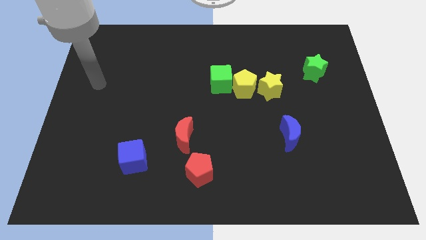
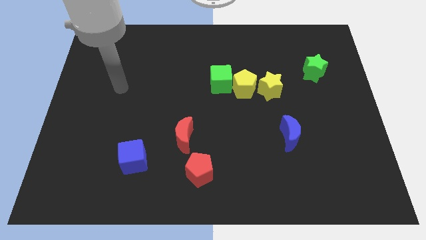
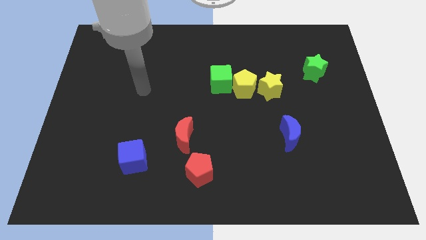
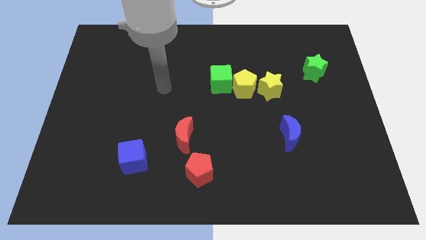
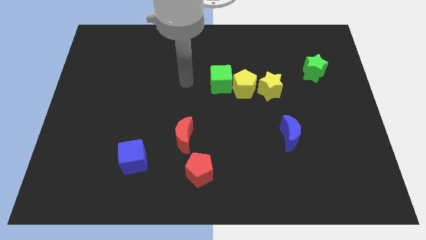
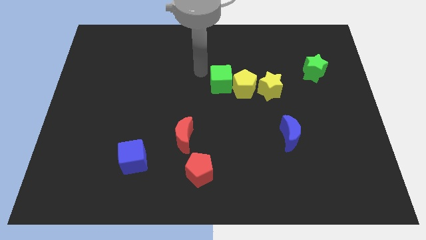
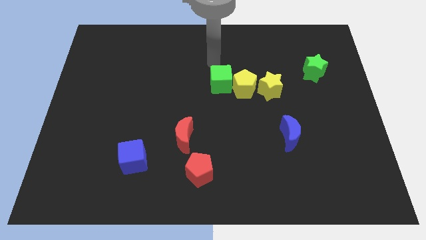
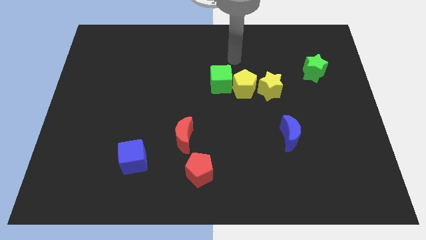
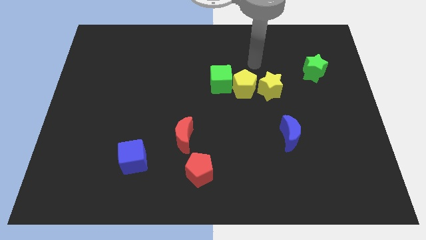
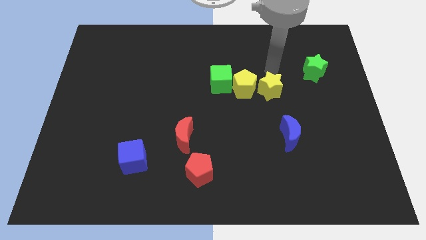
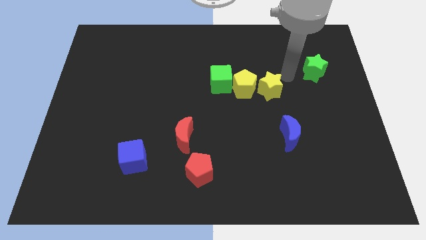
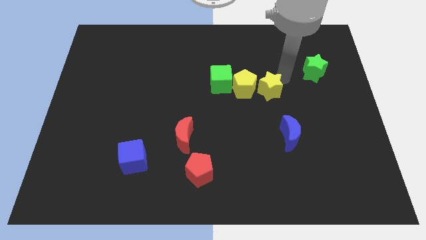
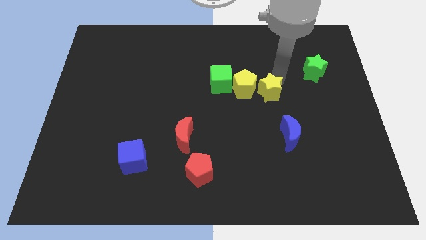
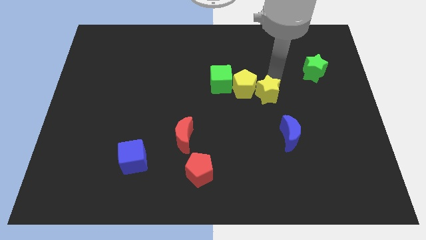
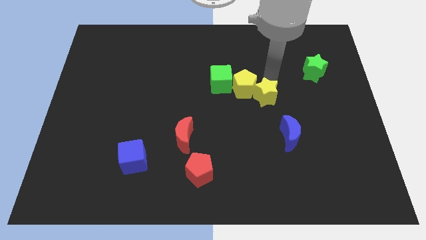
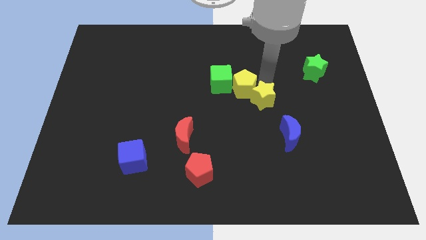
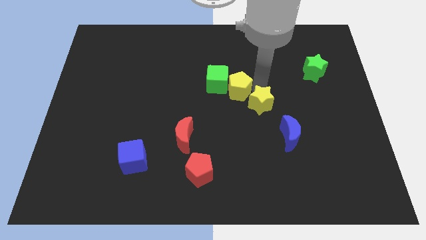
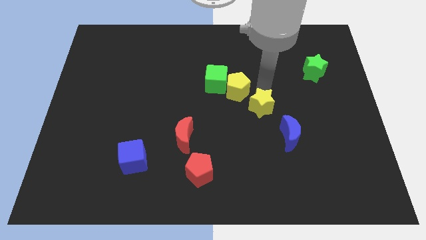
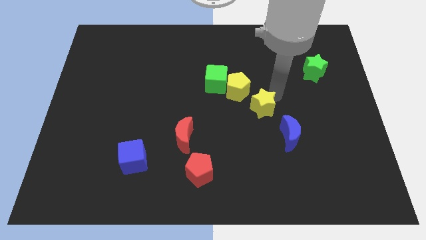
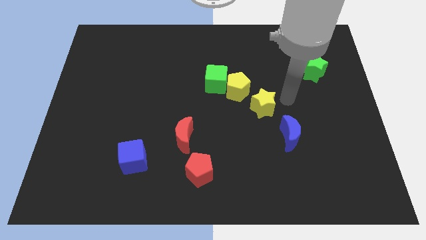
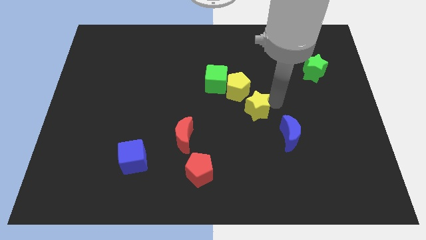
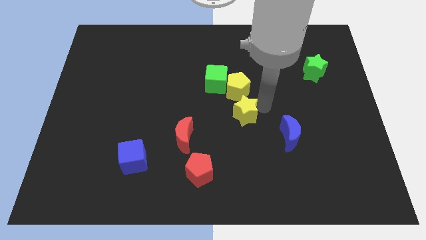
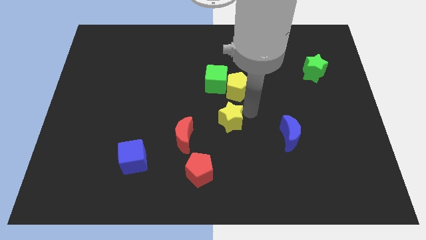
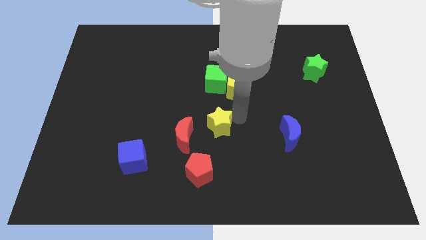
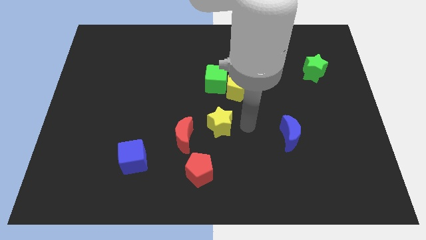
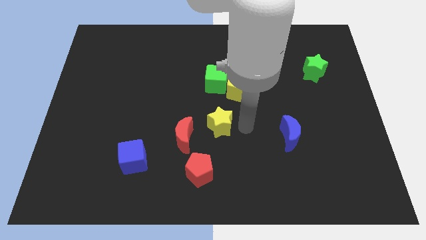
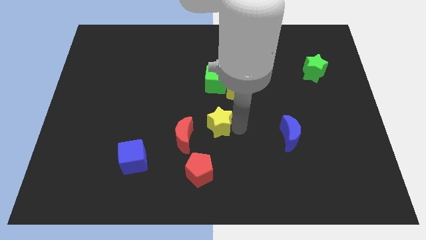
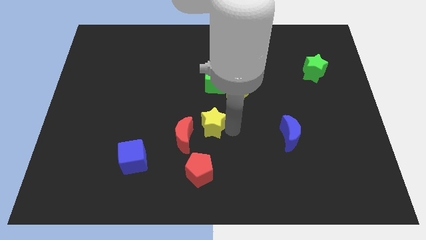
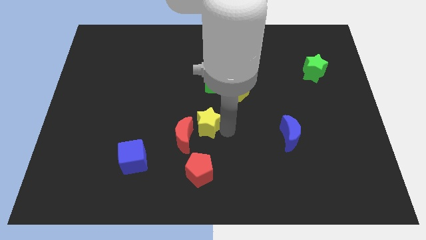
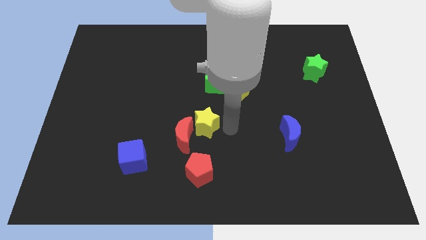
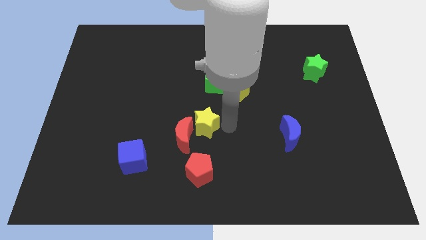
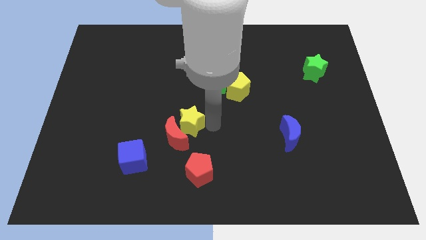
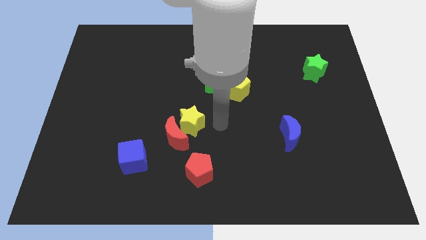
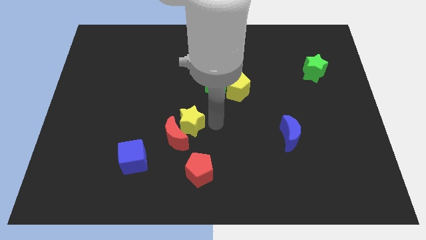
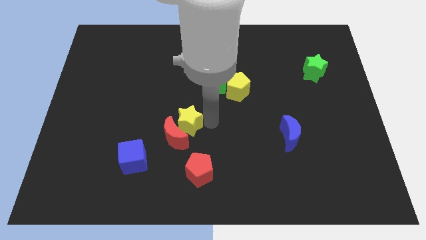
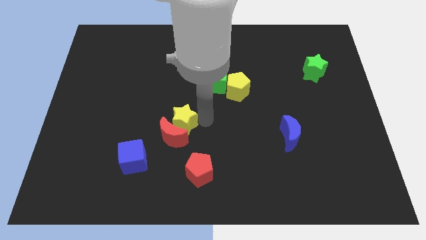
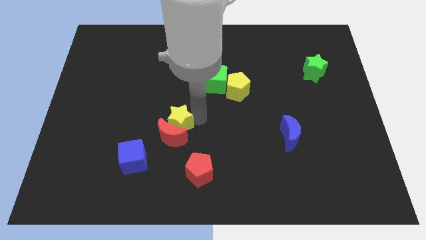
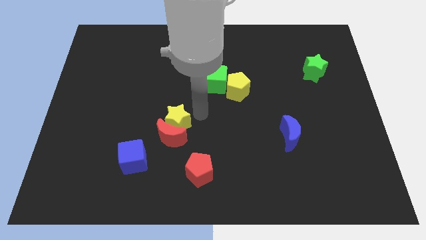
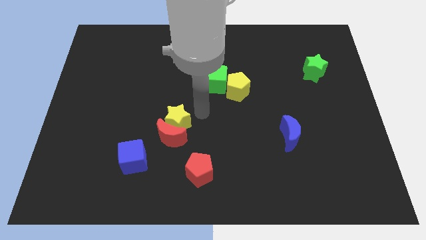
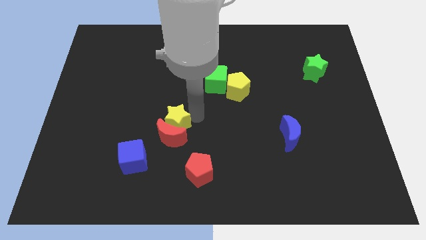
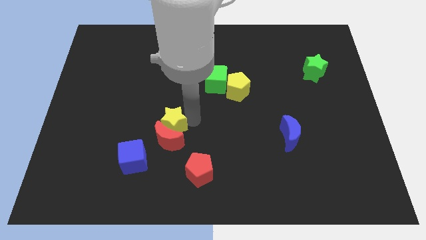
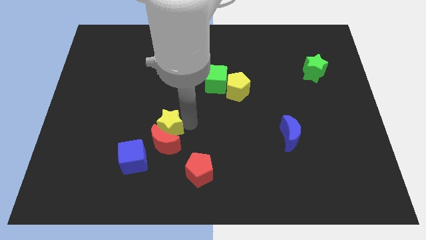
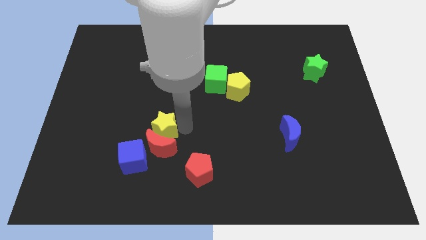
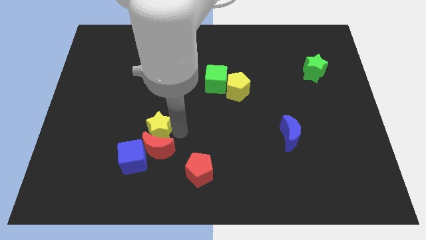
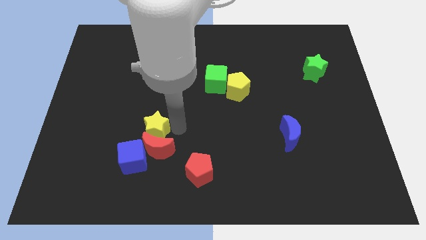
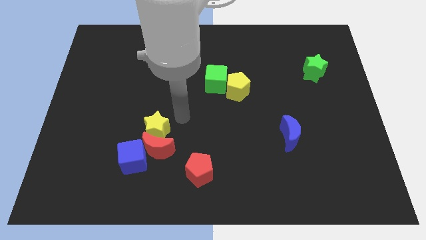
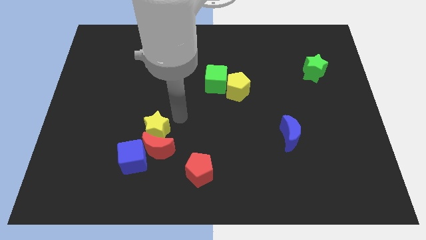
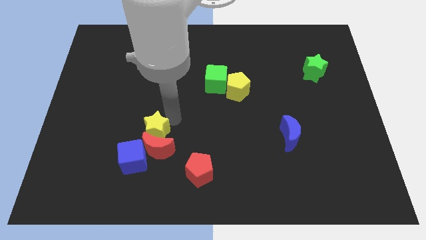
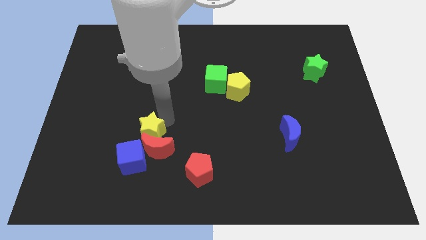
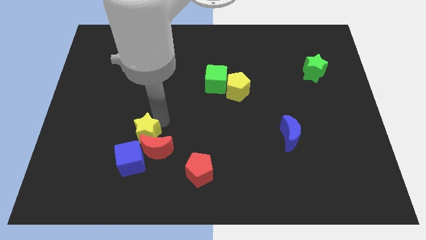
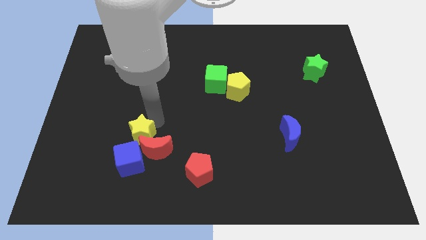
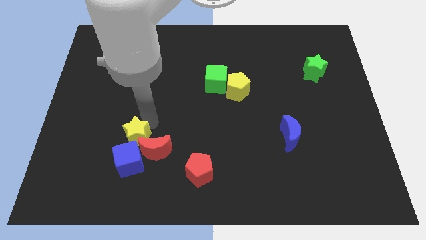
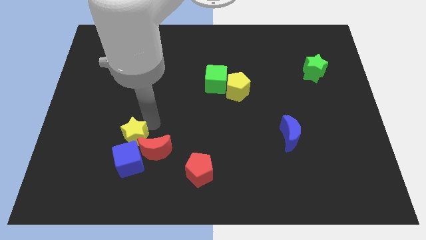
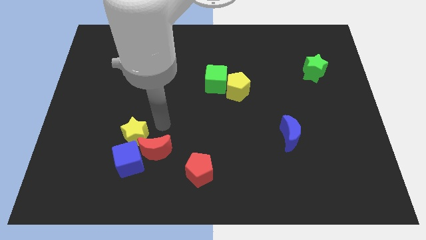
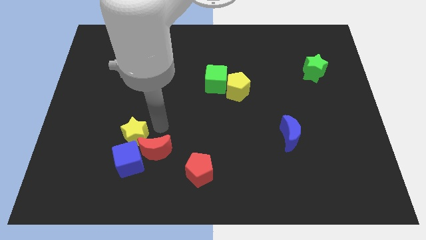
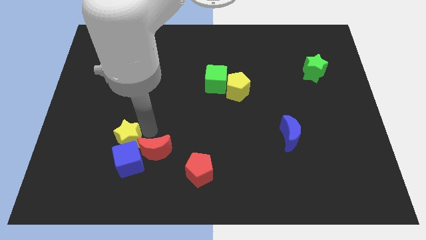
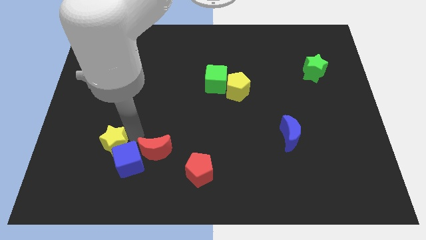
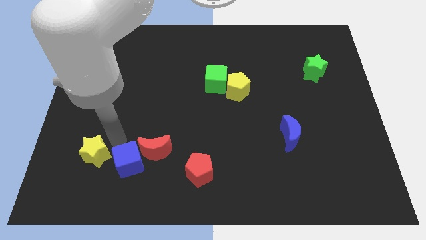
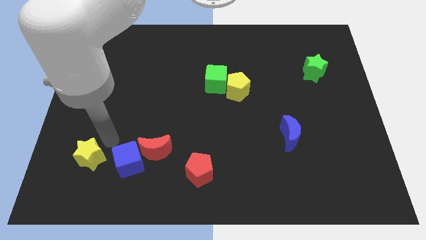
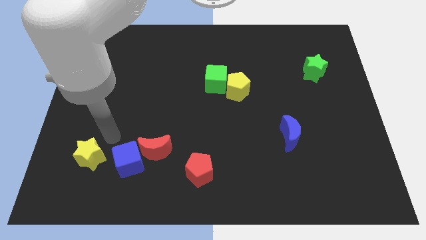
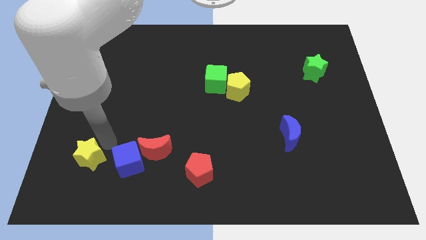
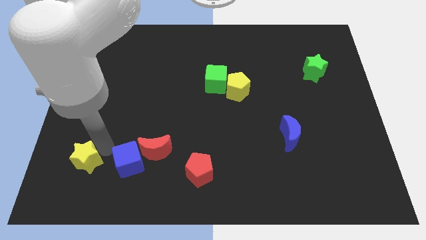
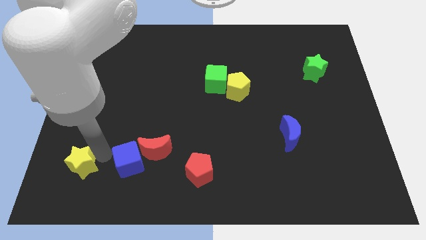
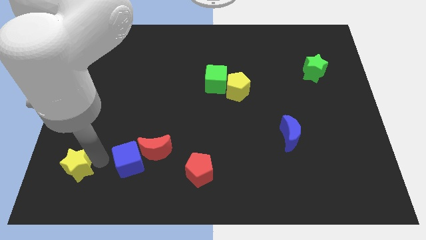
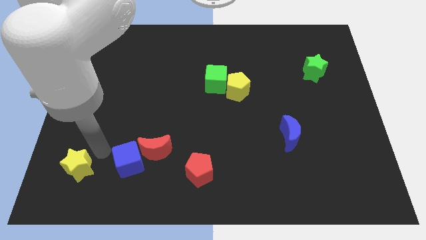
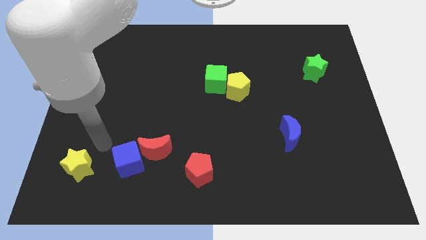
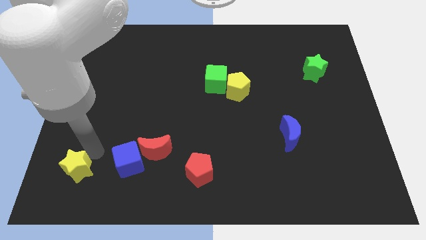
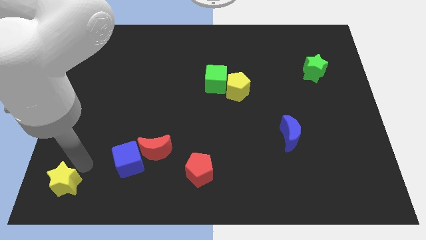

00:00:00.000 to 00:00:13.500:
push the yellow star to the bottom left of the board

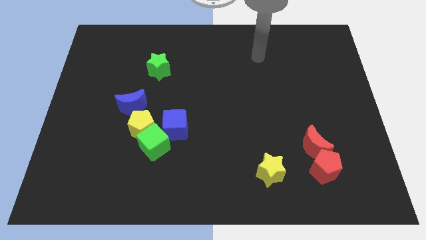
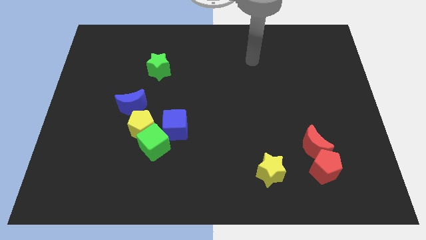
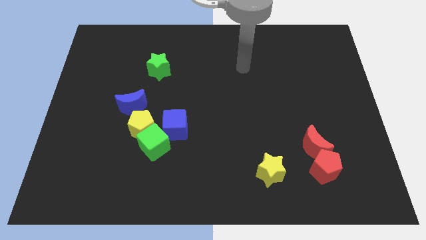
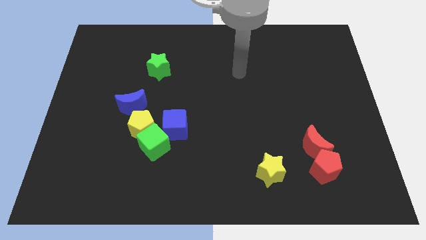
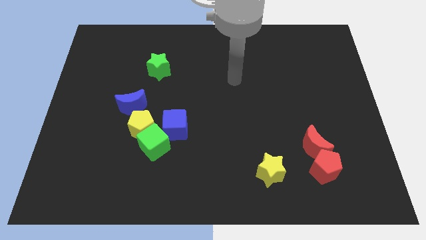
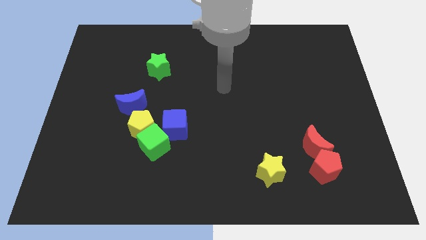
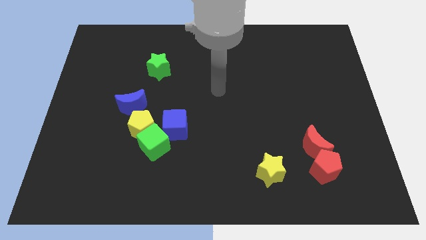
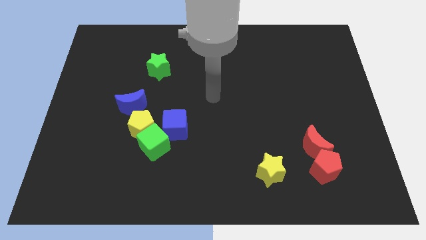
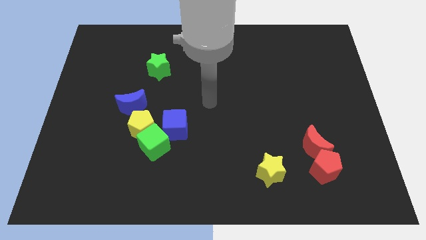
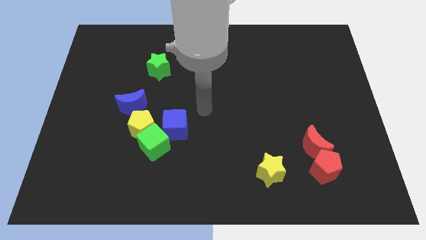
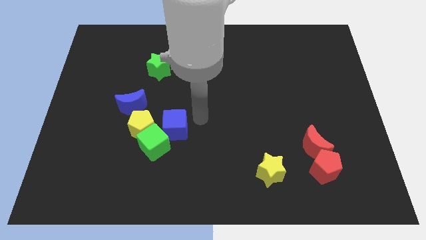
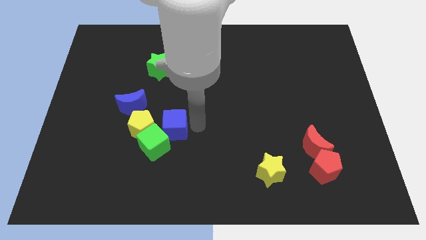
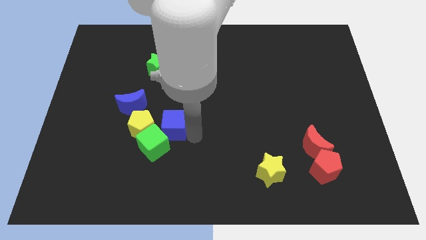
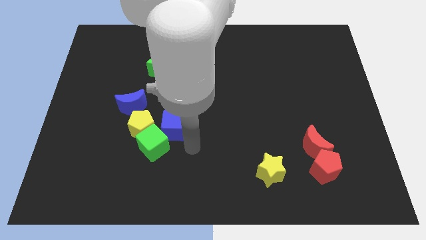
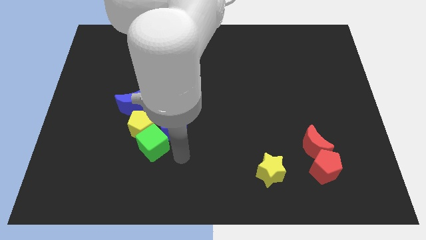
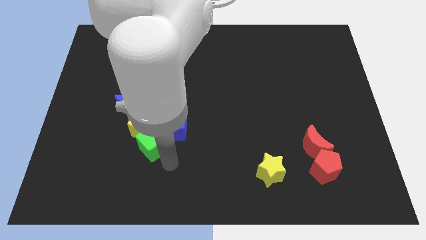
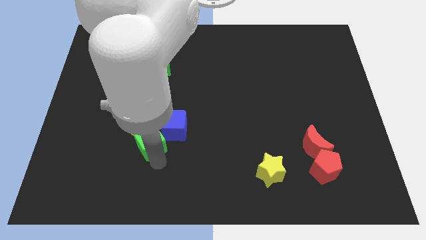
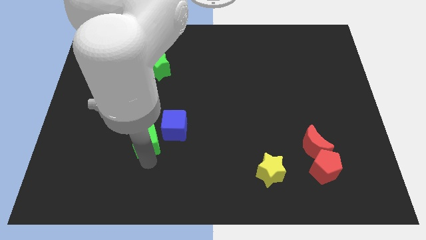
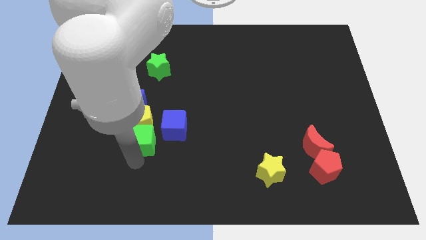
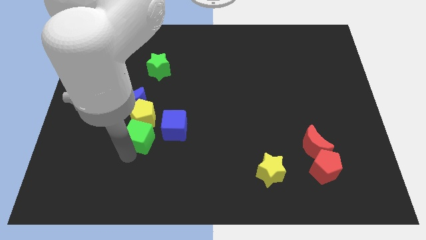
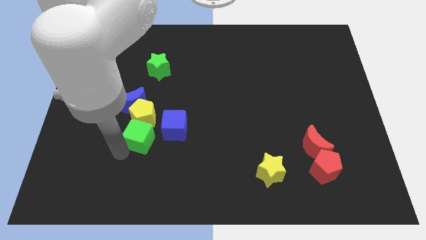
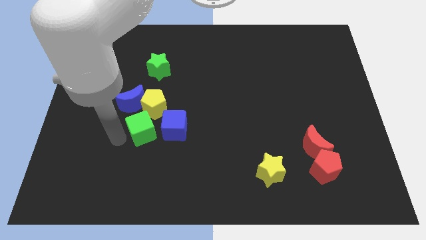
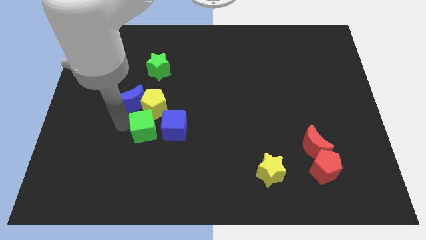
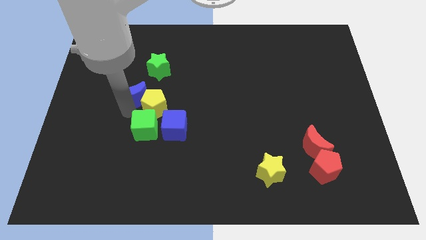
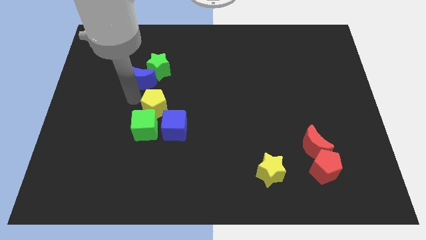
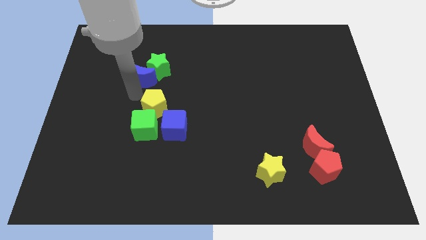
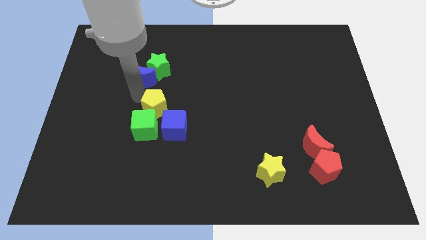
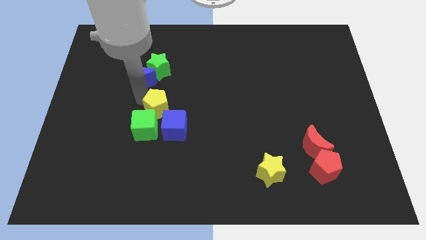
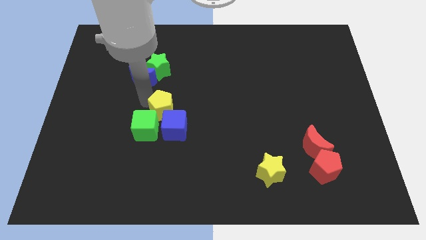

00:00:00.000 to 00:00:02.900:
put the yellow pentagon to the middle
